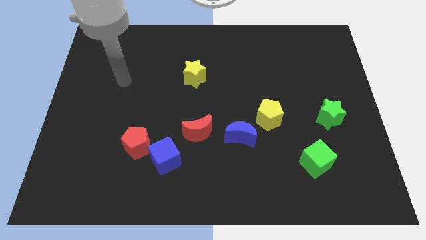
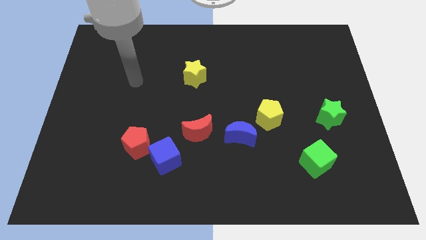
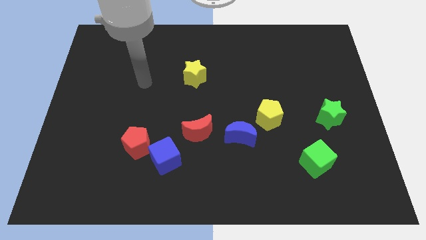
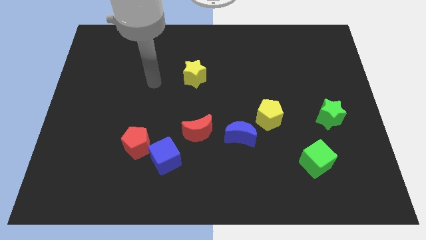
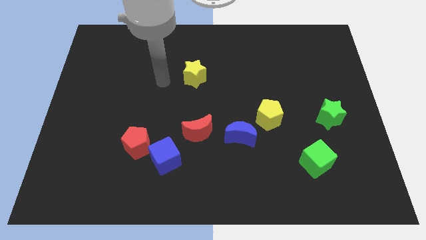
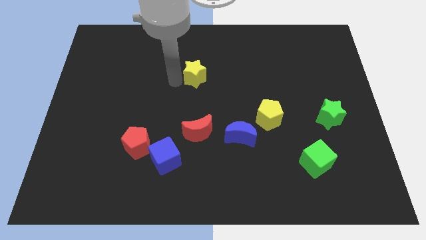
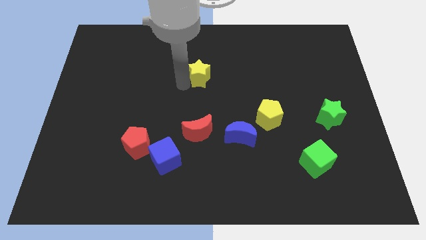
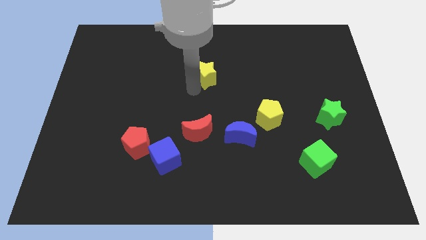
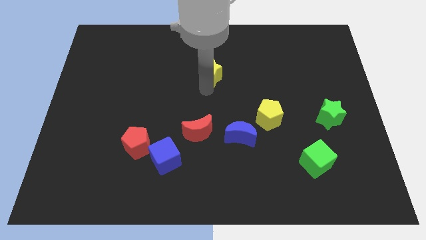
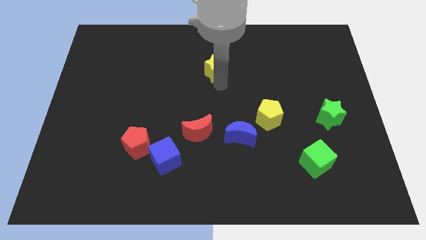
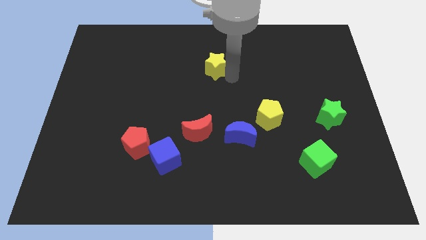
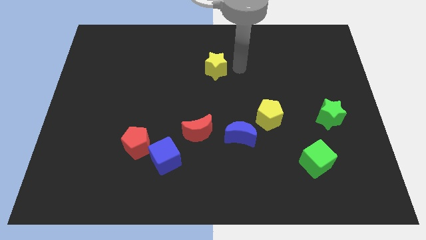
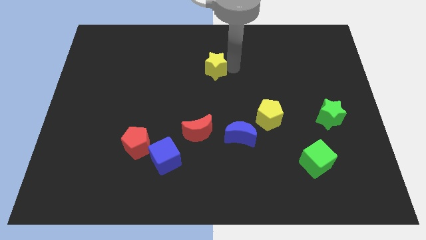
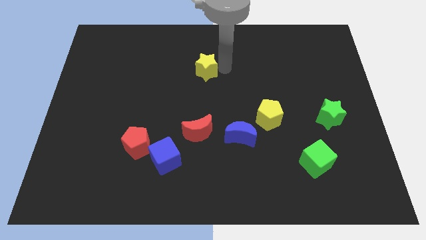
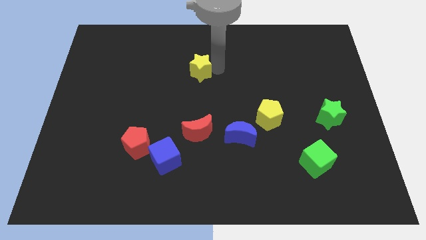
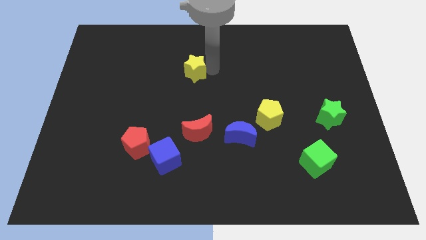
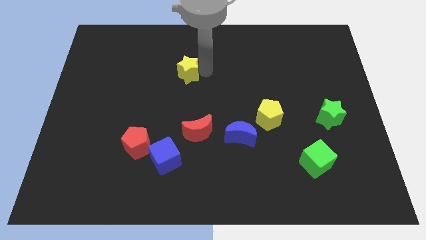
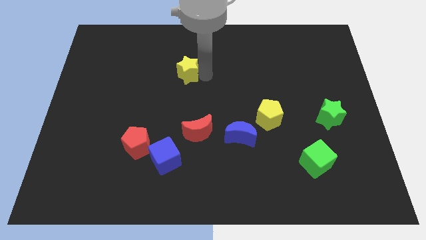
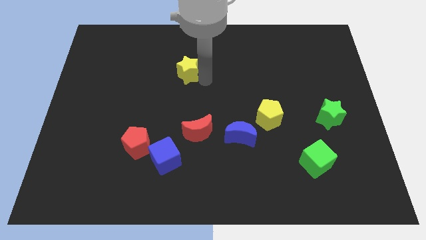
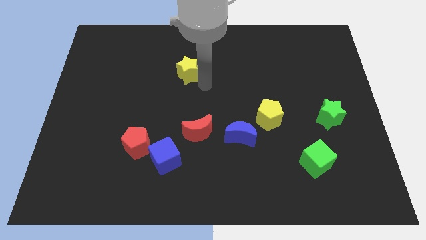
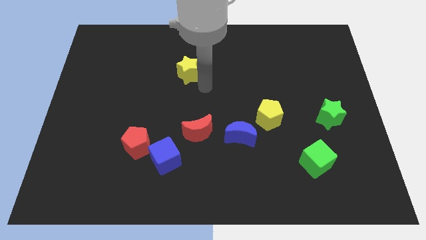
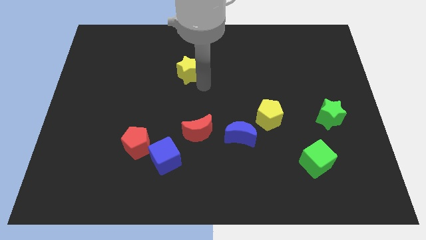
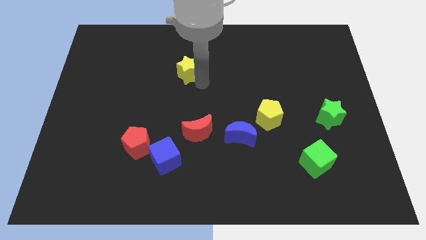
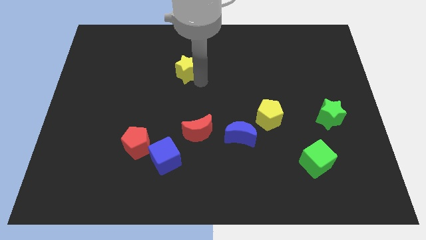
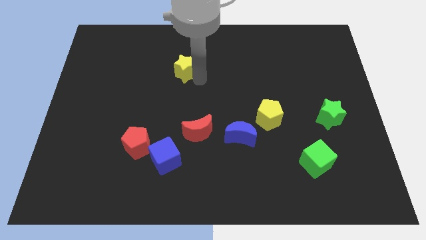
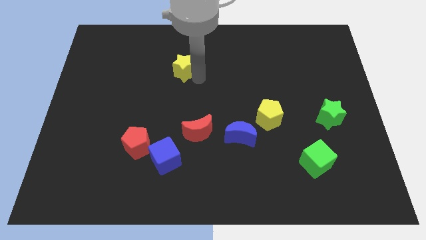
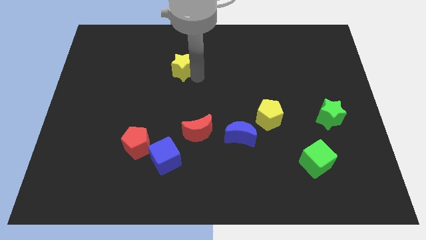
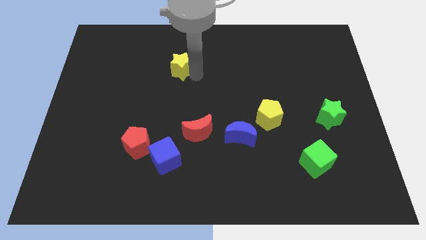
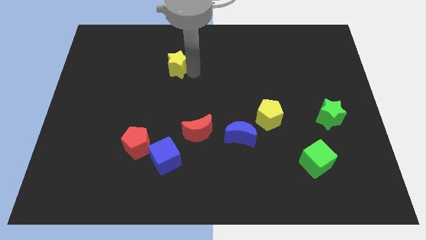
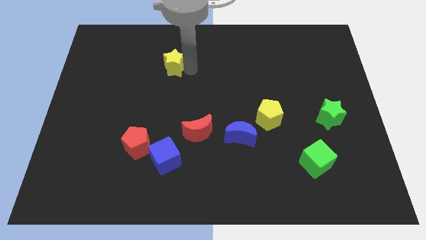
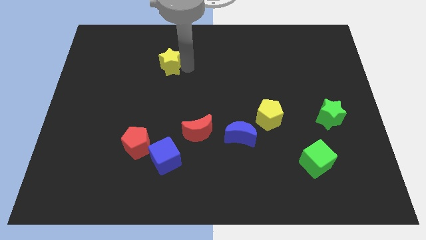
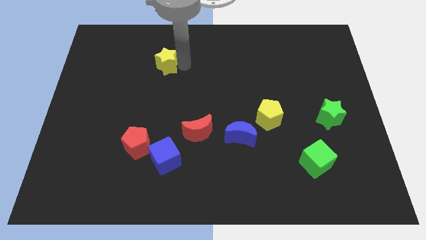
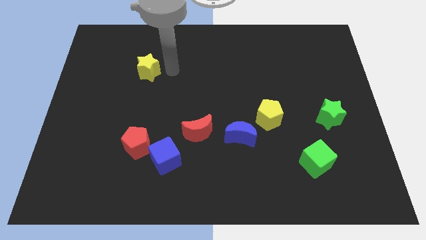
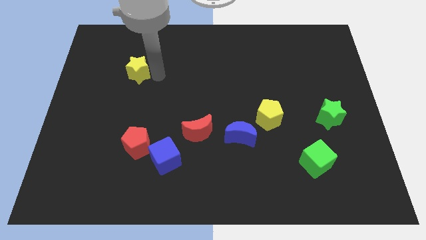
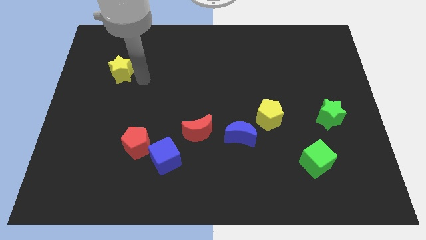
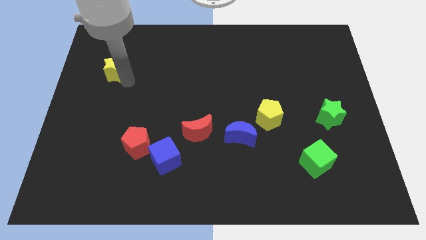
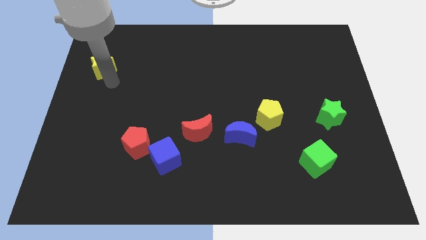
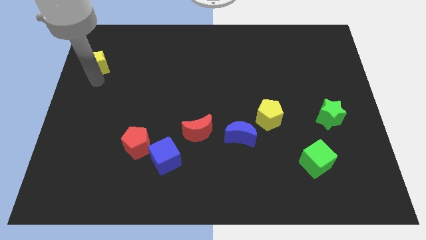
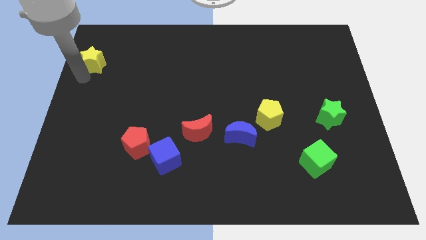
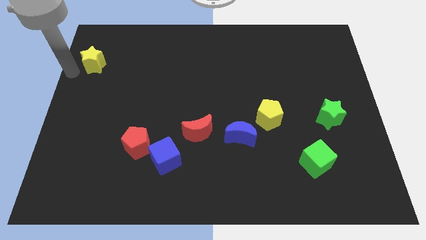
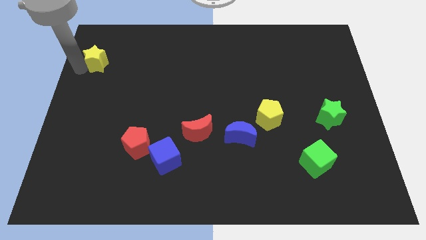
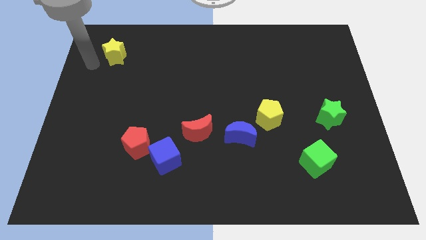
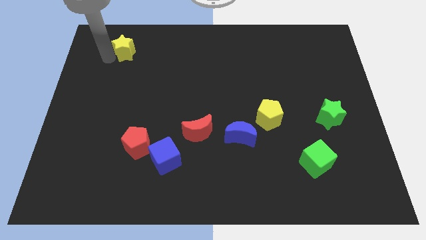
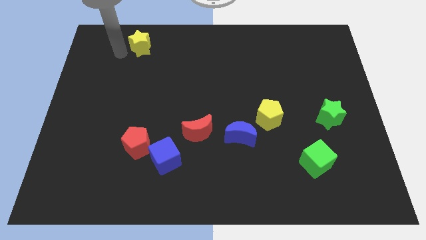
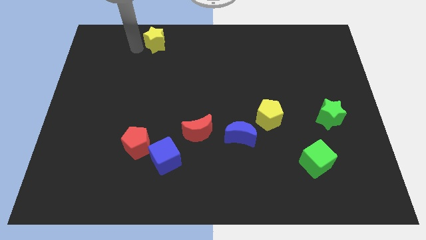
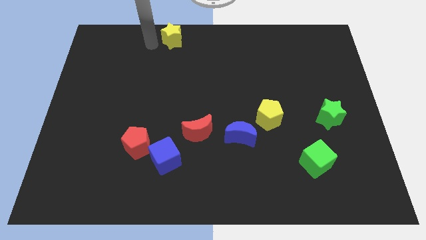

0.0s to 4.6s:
move the yellow star to the top

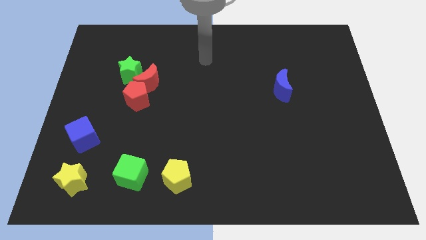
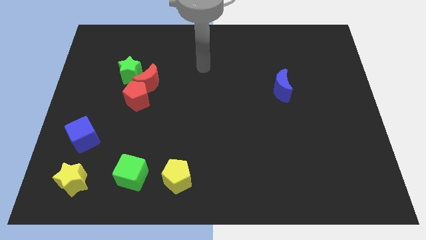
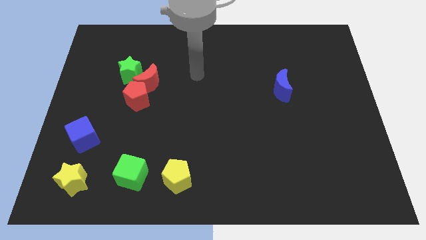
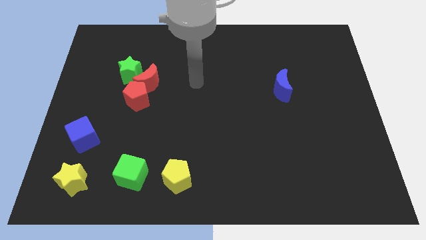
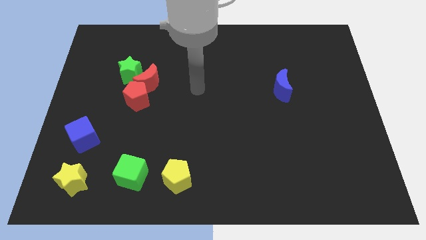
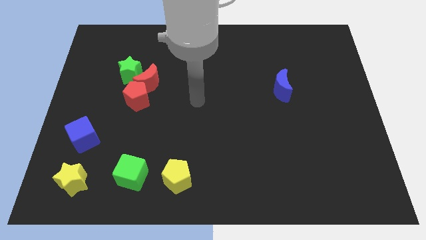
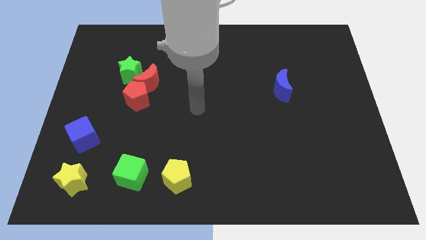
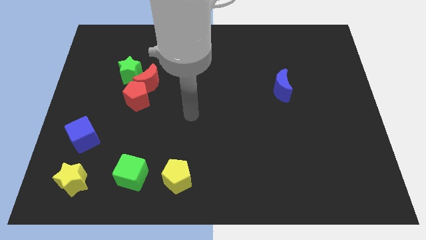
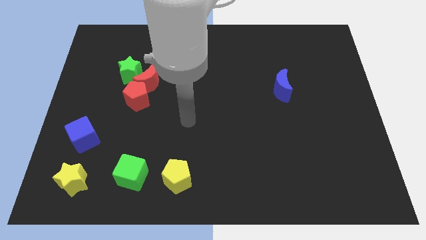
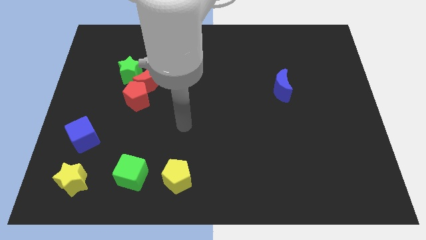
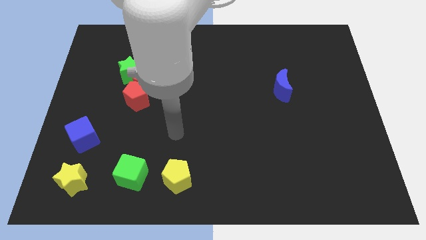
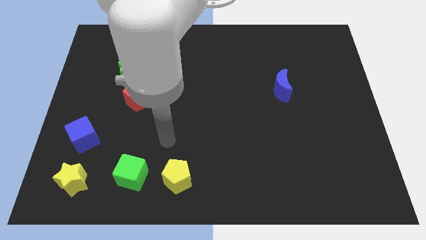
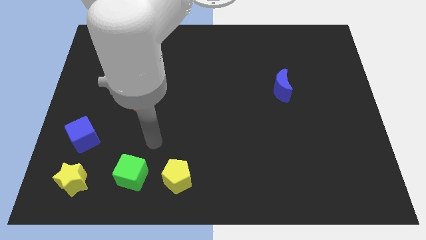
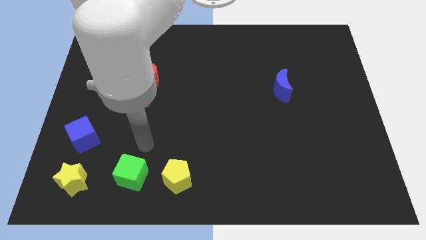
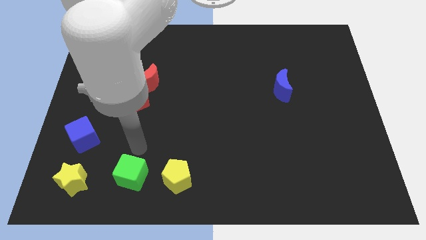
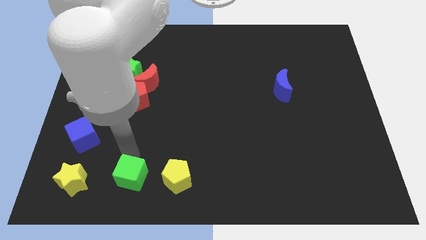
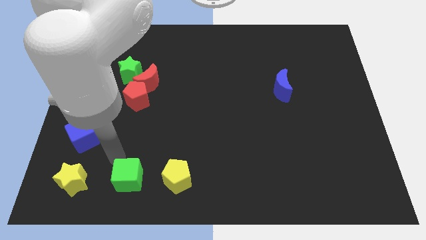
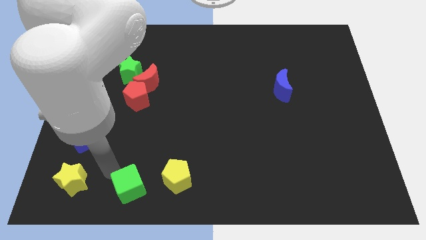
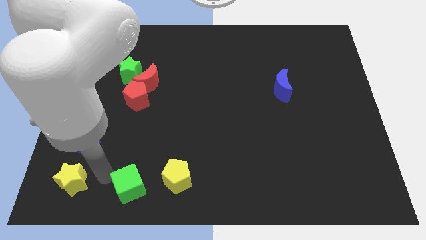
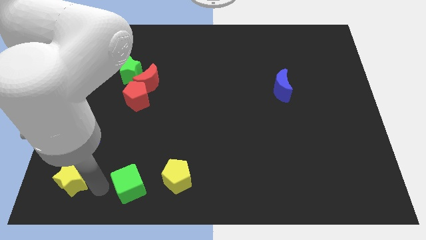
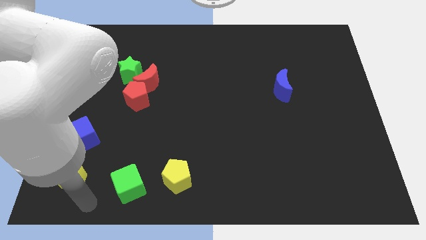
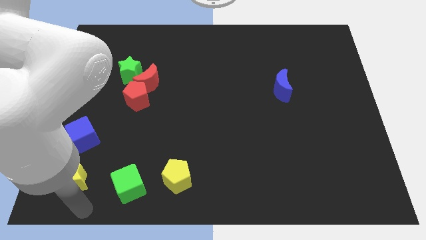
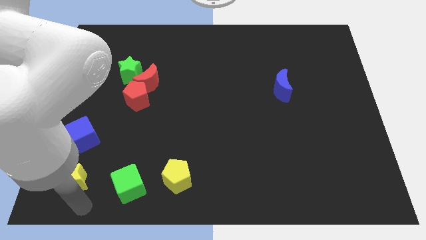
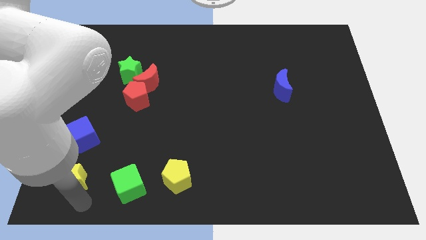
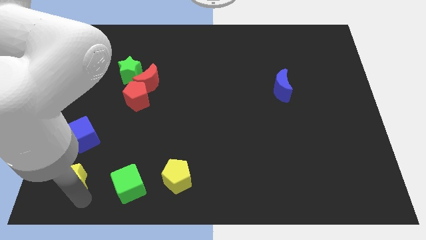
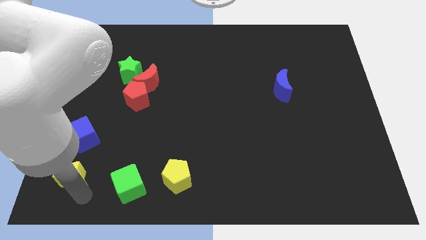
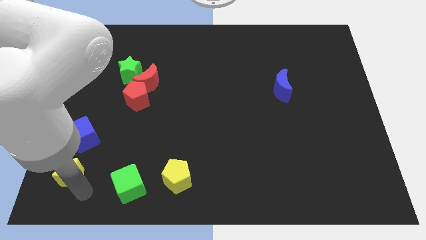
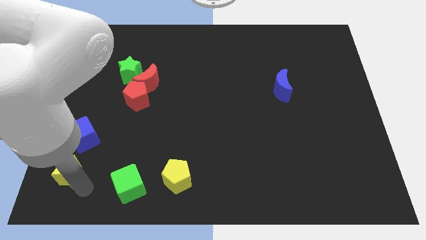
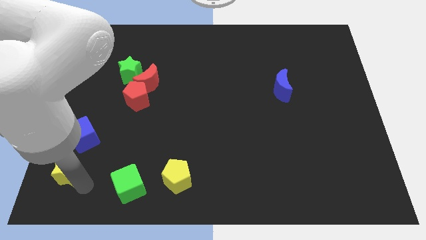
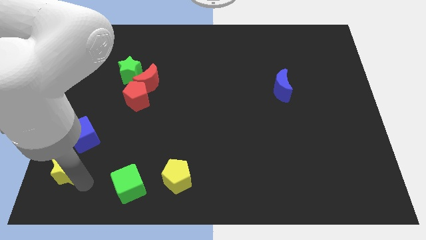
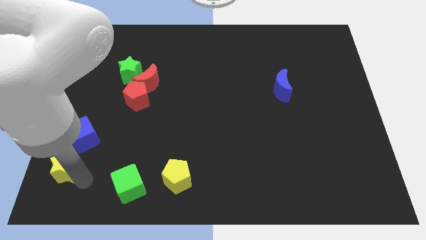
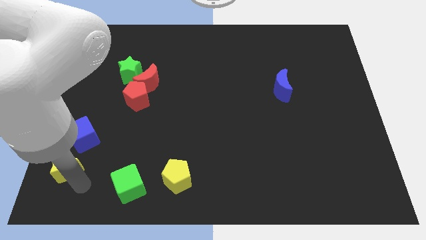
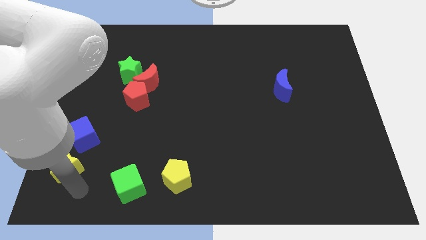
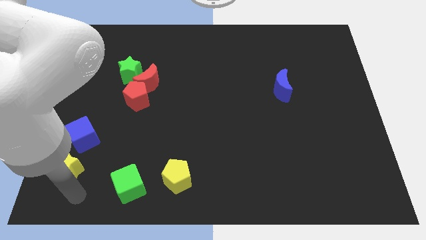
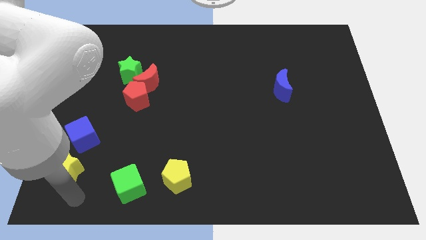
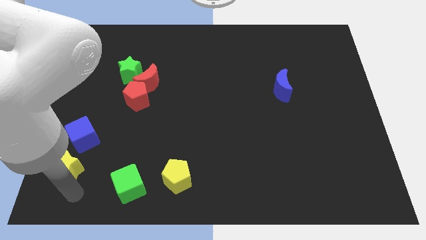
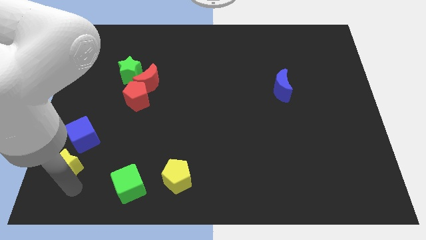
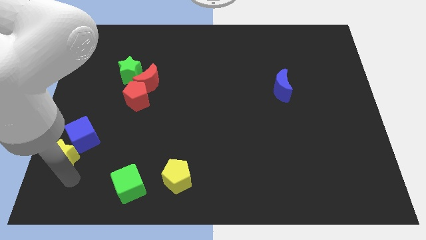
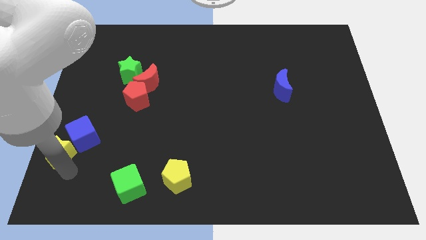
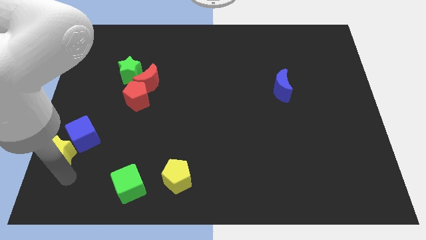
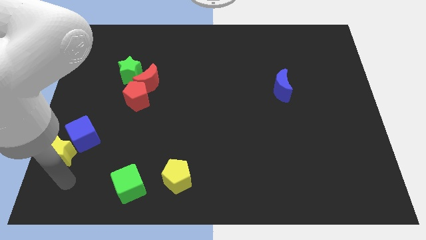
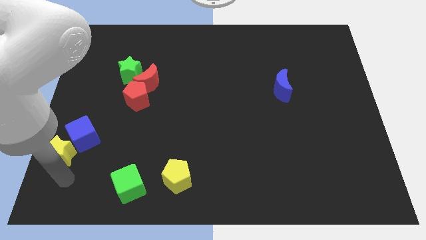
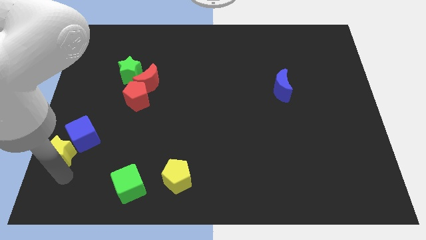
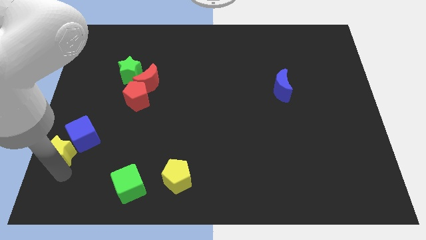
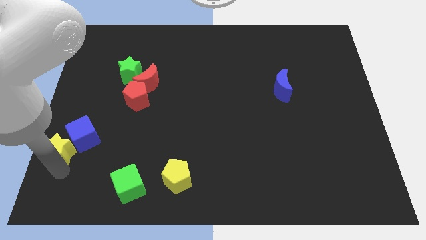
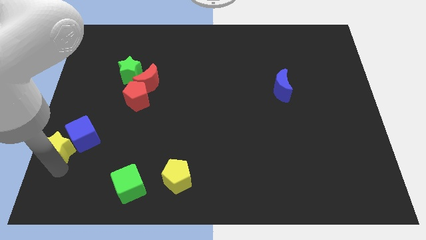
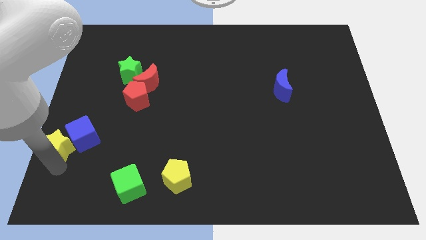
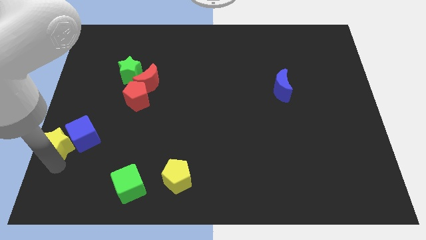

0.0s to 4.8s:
move the yellow star to the left side of the board
